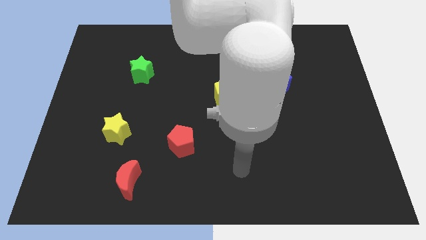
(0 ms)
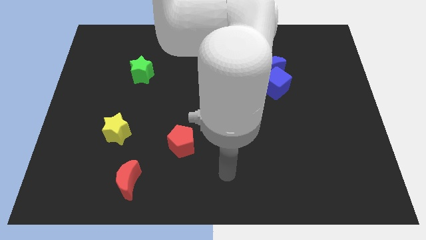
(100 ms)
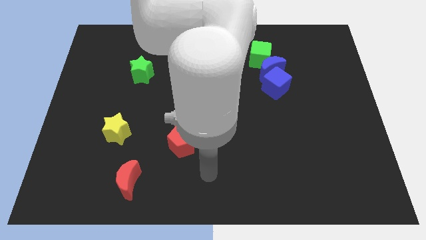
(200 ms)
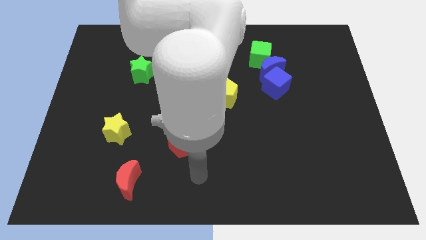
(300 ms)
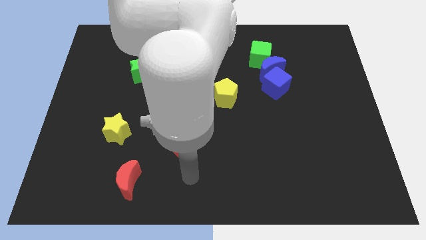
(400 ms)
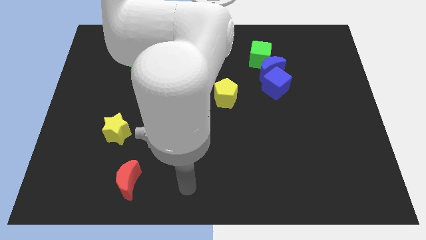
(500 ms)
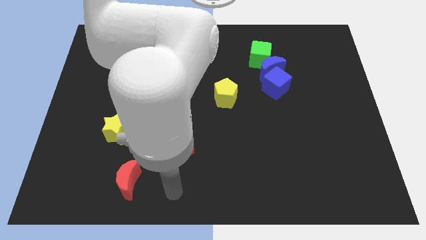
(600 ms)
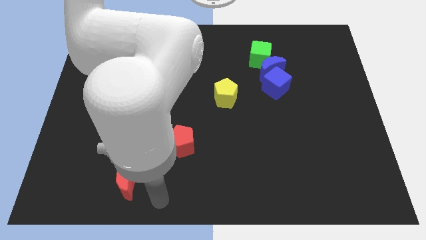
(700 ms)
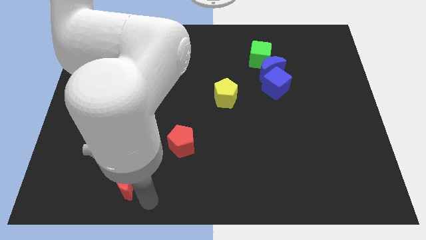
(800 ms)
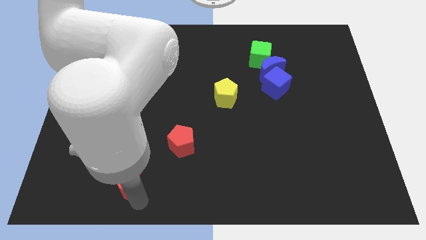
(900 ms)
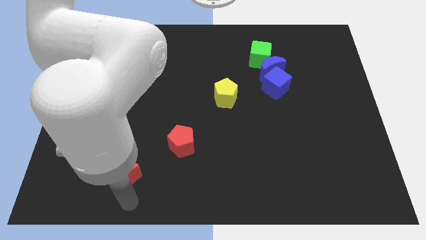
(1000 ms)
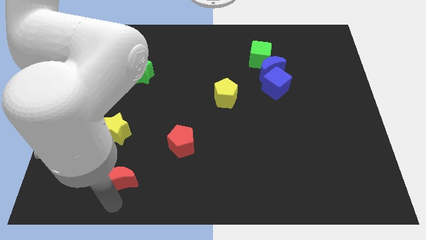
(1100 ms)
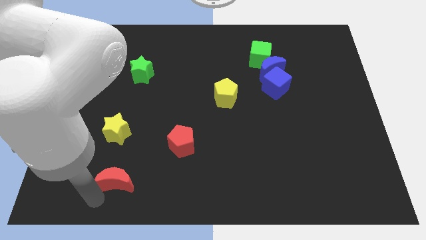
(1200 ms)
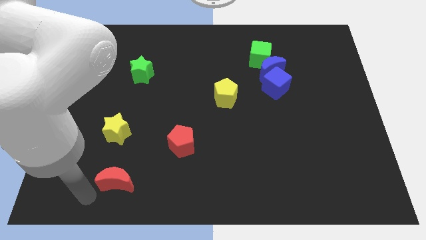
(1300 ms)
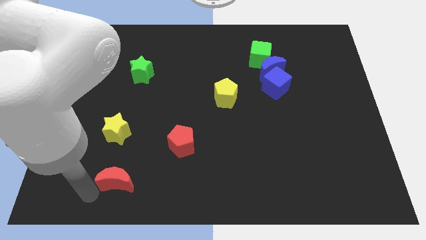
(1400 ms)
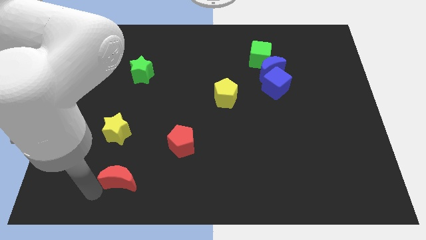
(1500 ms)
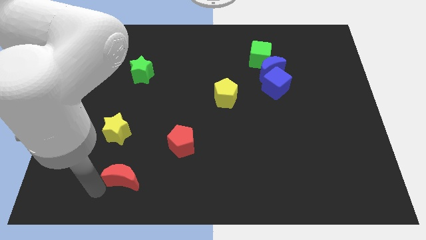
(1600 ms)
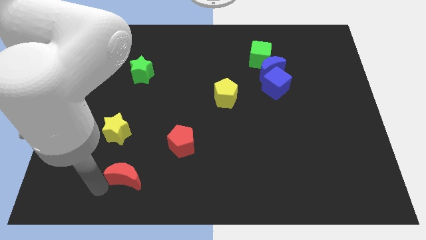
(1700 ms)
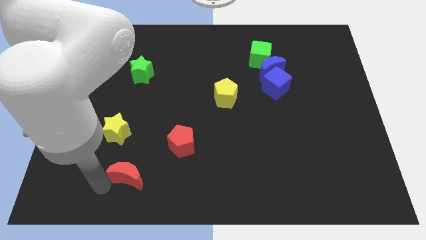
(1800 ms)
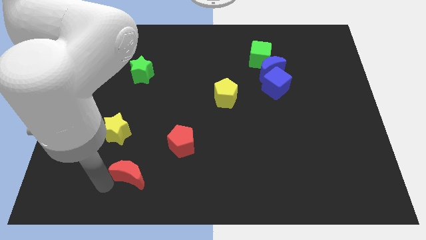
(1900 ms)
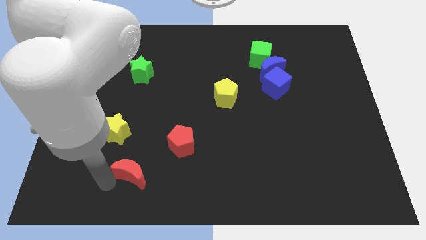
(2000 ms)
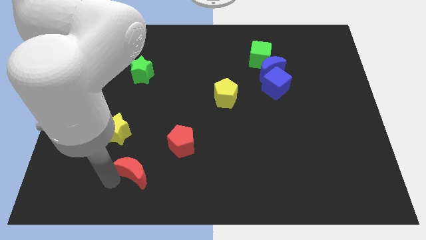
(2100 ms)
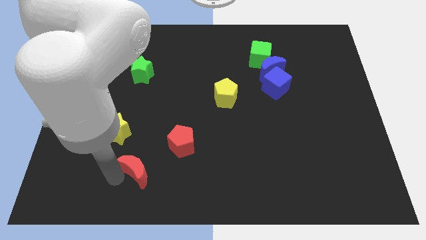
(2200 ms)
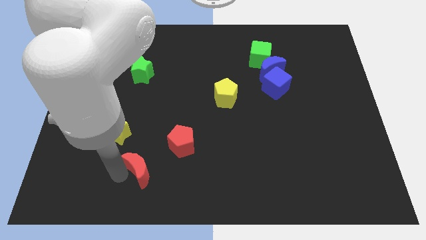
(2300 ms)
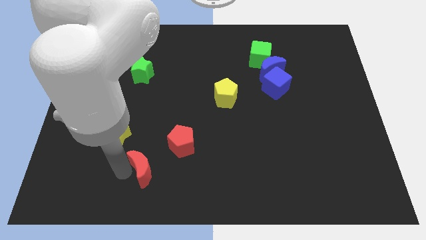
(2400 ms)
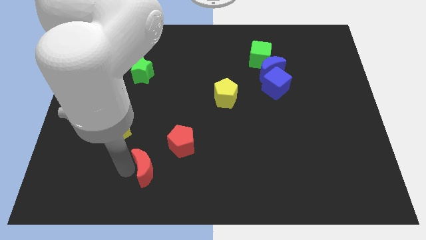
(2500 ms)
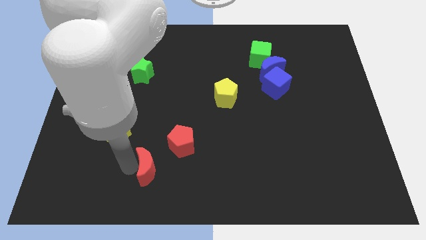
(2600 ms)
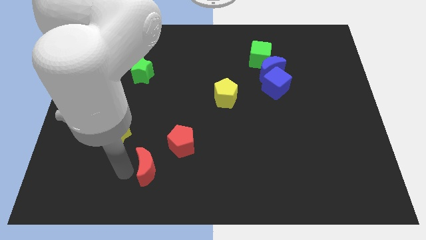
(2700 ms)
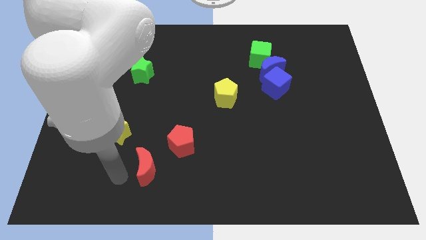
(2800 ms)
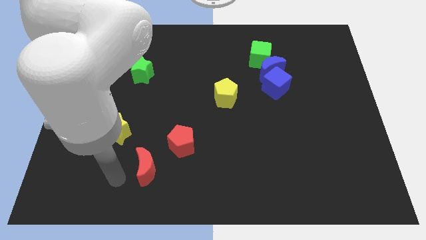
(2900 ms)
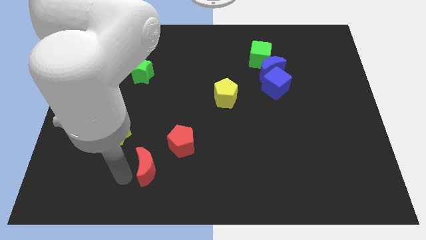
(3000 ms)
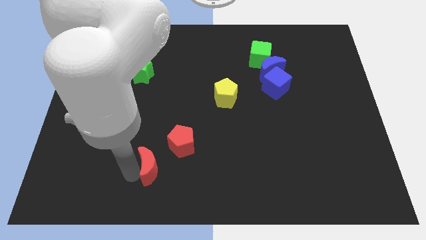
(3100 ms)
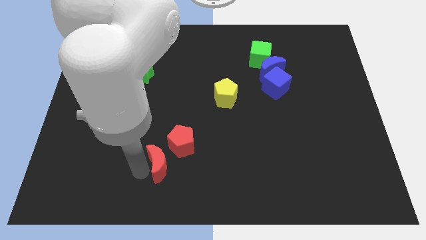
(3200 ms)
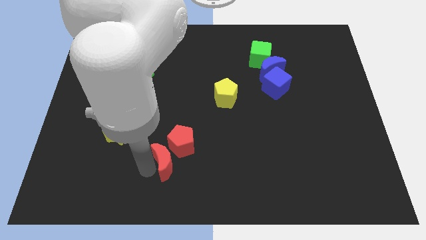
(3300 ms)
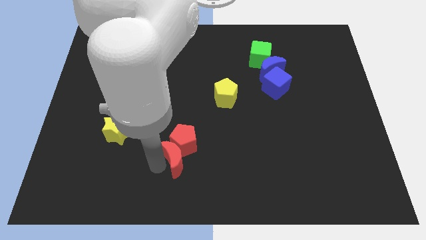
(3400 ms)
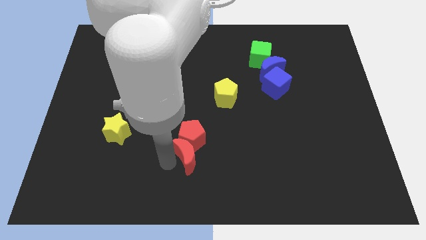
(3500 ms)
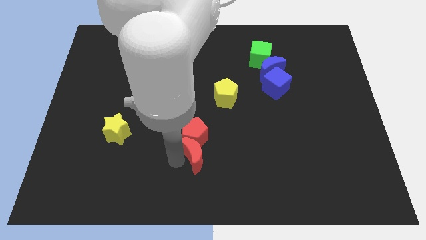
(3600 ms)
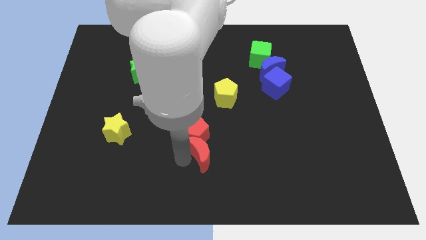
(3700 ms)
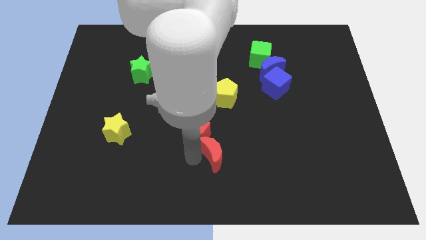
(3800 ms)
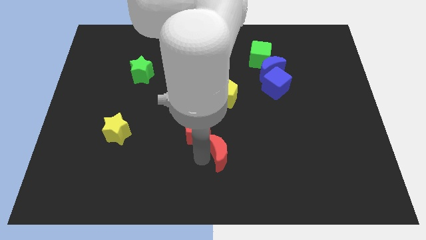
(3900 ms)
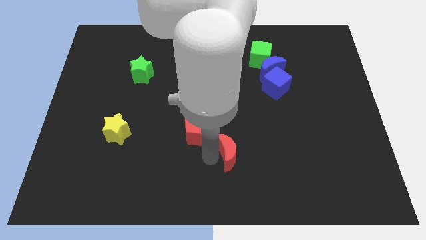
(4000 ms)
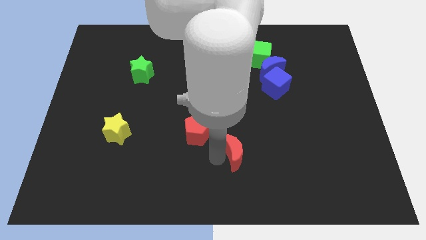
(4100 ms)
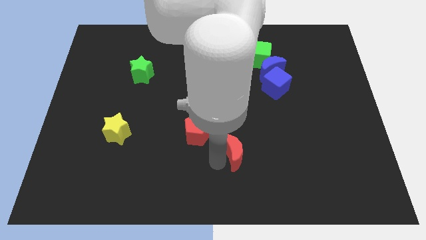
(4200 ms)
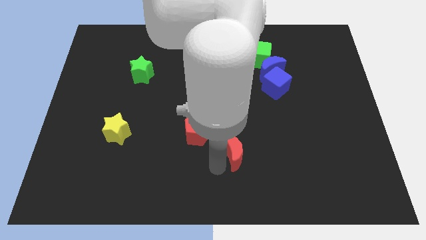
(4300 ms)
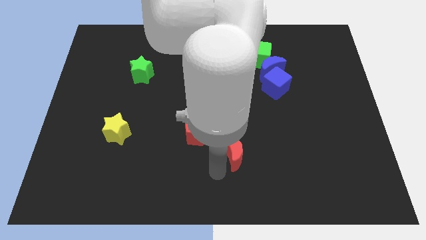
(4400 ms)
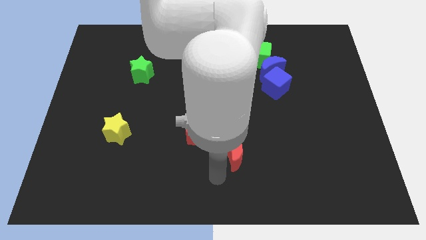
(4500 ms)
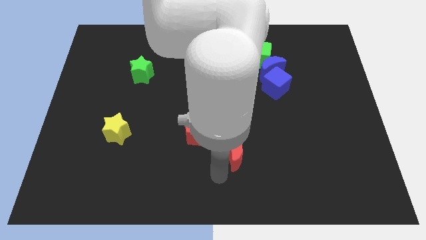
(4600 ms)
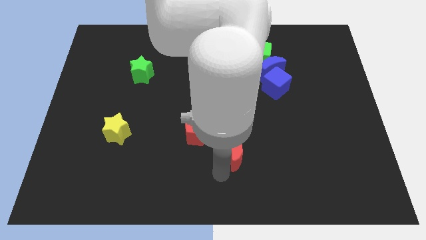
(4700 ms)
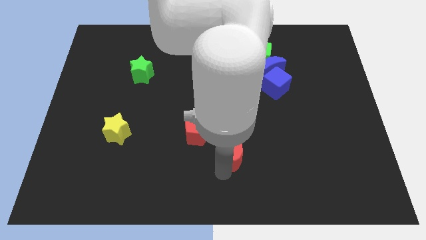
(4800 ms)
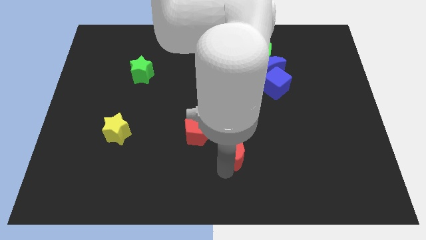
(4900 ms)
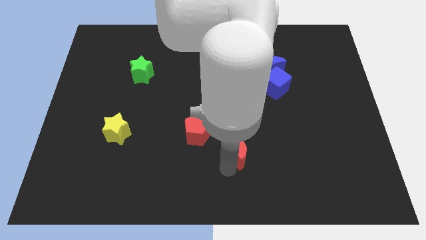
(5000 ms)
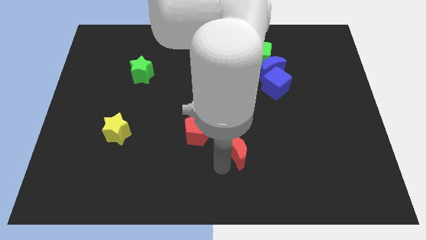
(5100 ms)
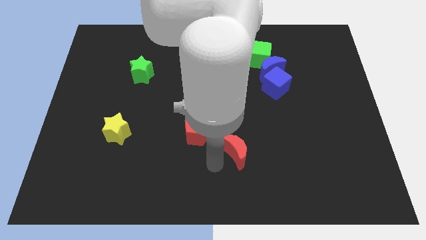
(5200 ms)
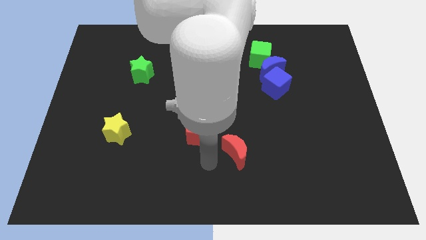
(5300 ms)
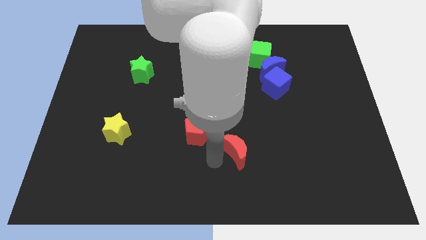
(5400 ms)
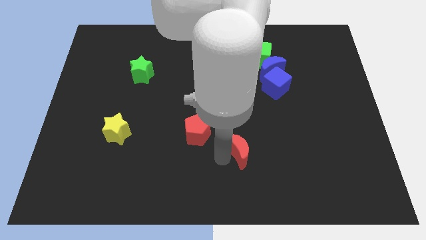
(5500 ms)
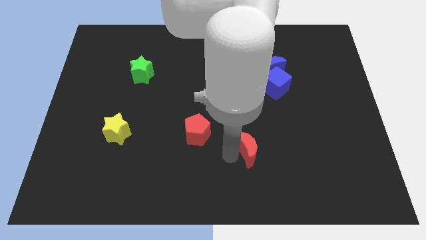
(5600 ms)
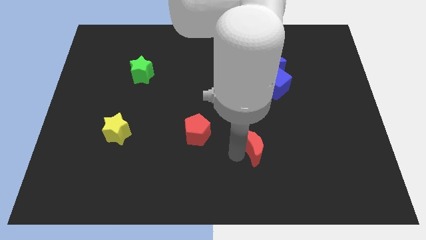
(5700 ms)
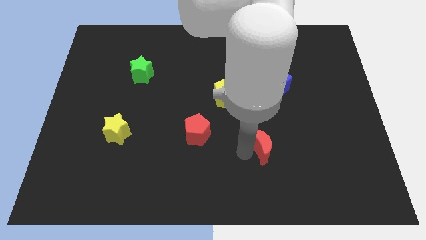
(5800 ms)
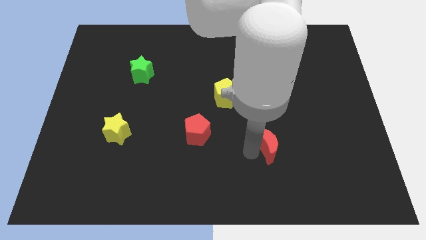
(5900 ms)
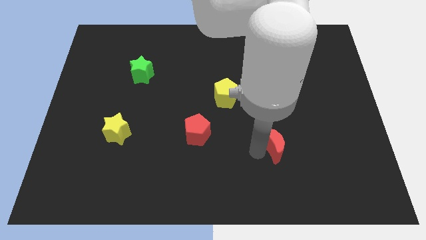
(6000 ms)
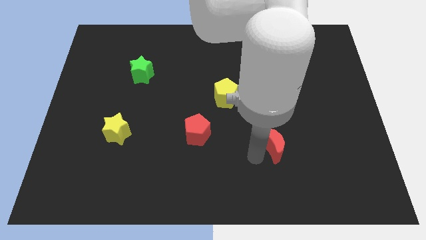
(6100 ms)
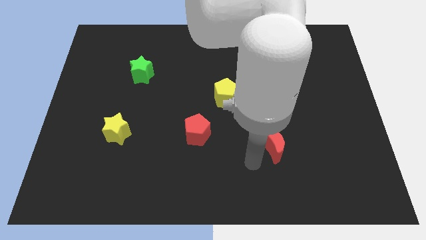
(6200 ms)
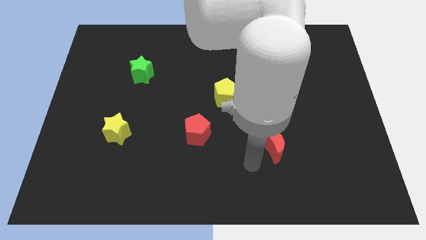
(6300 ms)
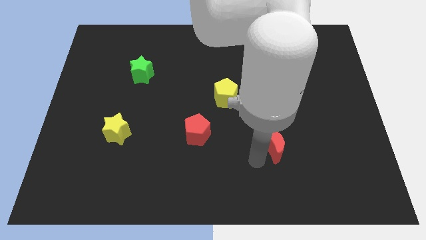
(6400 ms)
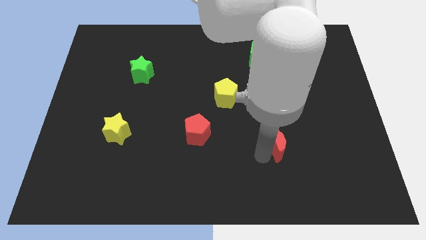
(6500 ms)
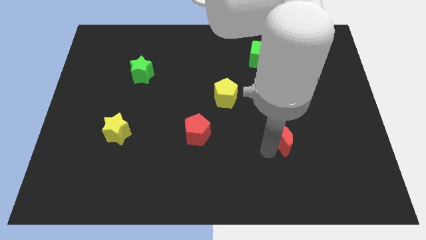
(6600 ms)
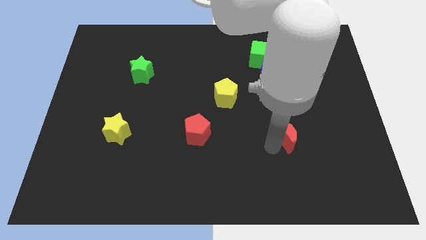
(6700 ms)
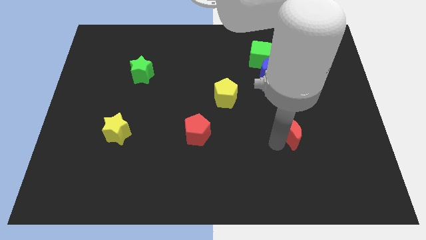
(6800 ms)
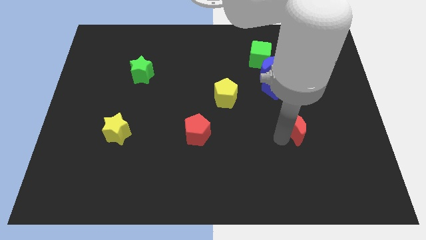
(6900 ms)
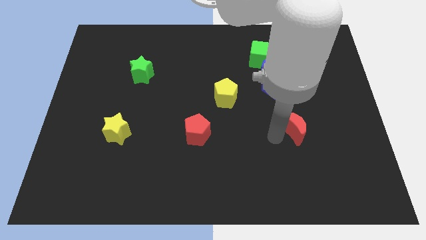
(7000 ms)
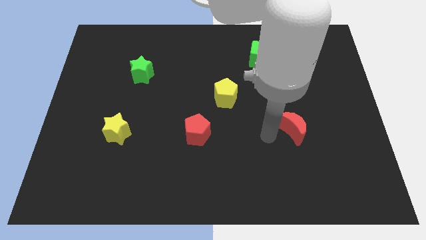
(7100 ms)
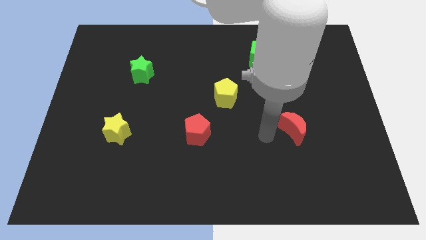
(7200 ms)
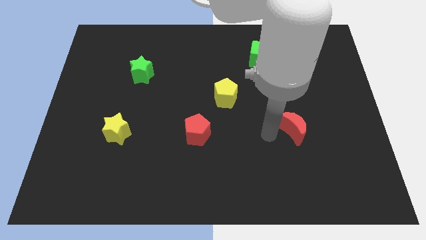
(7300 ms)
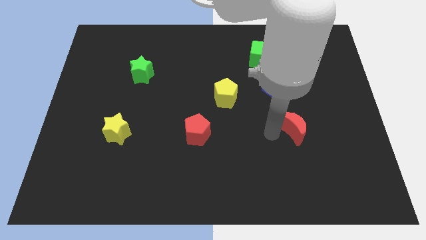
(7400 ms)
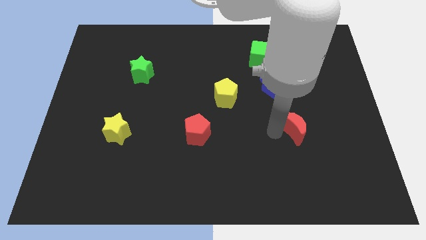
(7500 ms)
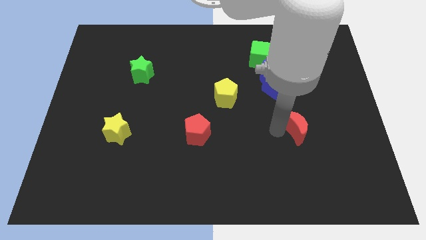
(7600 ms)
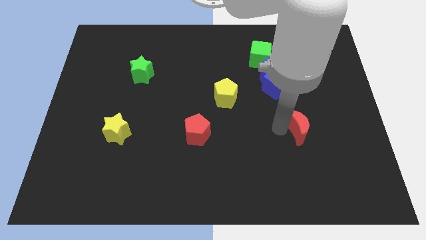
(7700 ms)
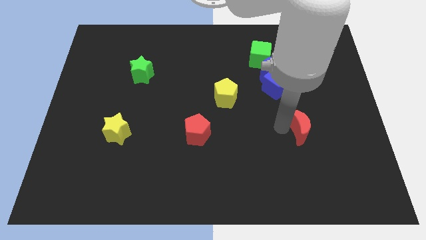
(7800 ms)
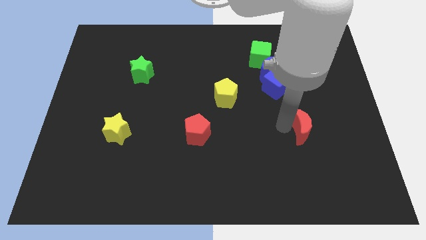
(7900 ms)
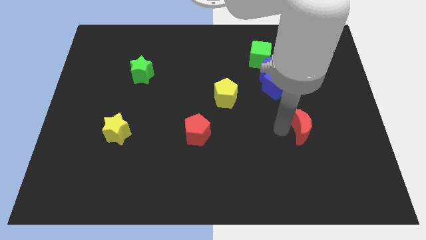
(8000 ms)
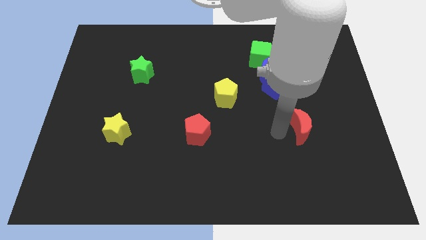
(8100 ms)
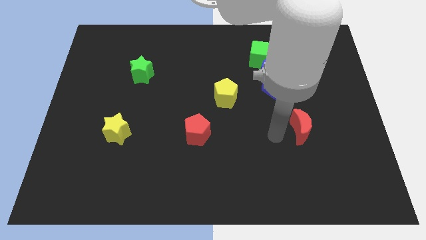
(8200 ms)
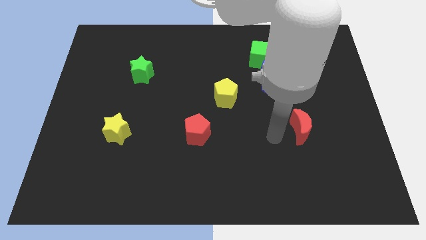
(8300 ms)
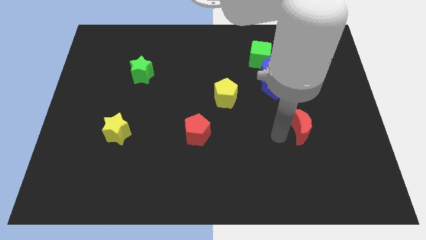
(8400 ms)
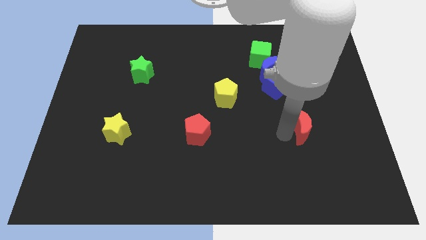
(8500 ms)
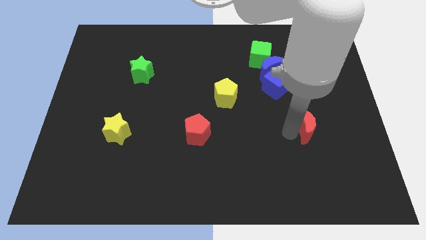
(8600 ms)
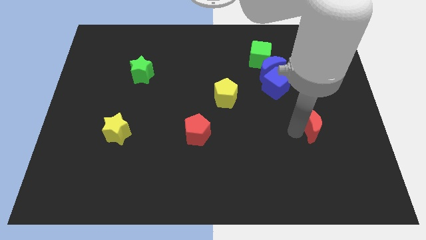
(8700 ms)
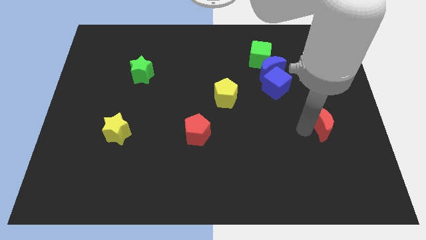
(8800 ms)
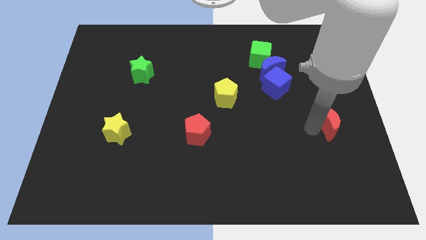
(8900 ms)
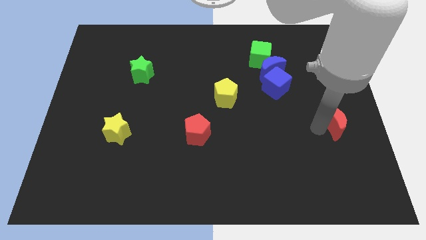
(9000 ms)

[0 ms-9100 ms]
move the red moon to the center right
